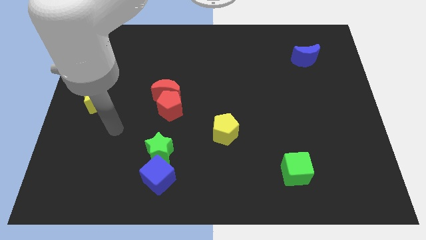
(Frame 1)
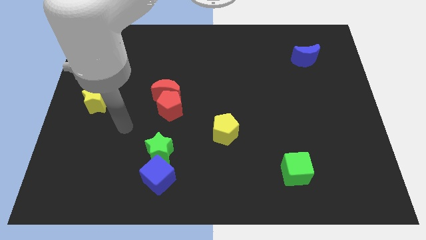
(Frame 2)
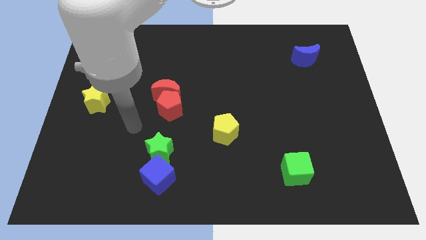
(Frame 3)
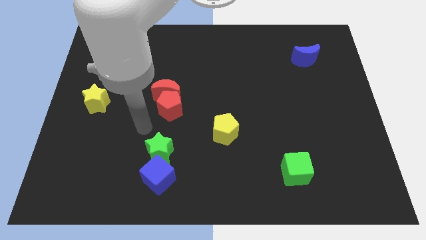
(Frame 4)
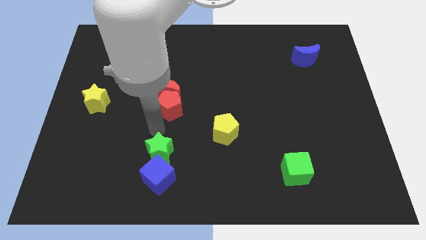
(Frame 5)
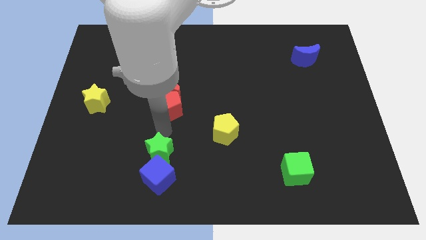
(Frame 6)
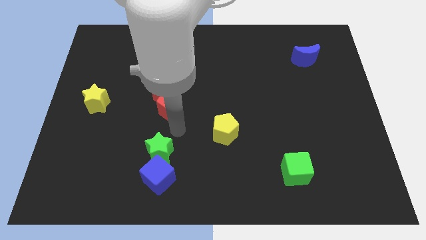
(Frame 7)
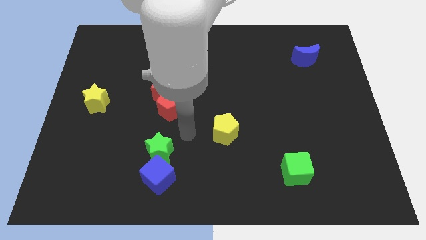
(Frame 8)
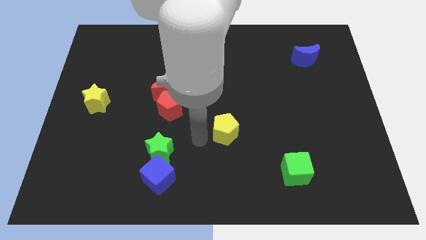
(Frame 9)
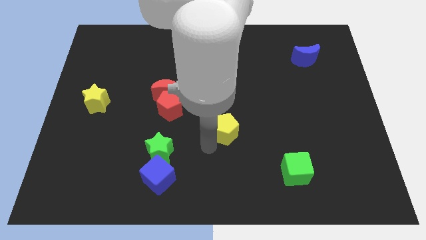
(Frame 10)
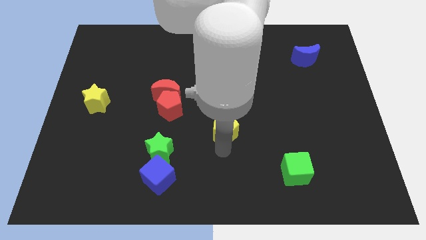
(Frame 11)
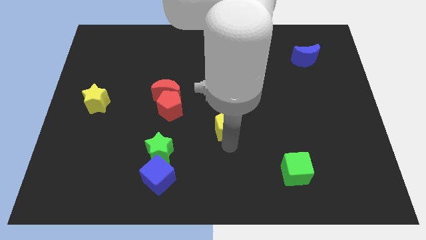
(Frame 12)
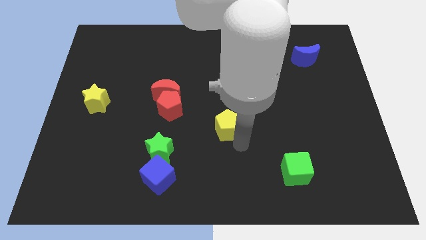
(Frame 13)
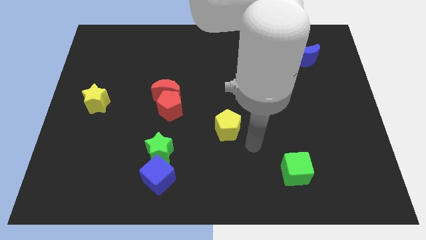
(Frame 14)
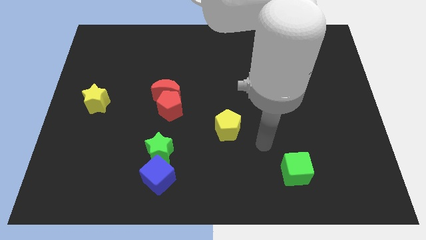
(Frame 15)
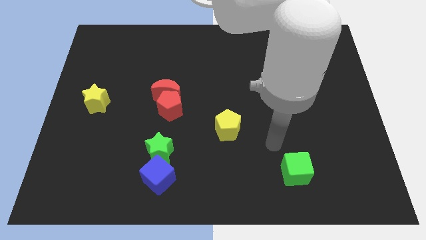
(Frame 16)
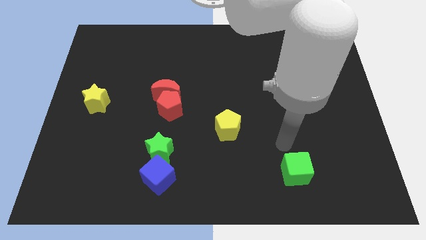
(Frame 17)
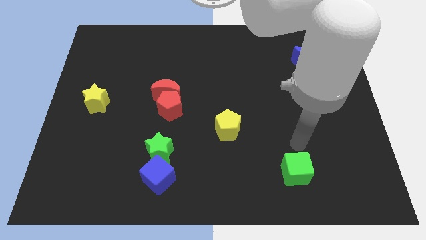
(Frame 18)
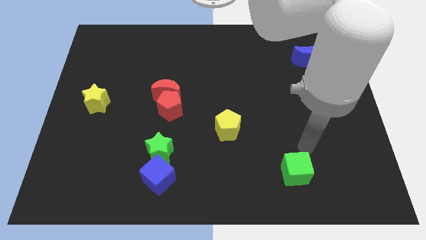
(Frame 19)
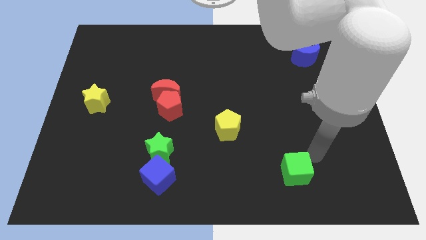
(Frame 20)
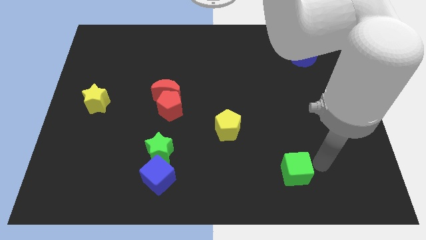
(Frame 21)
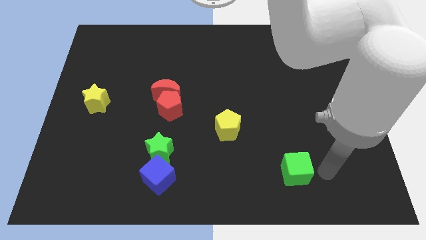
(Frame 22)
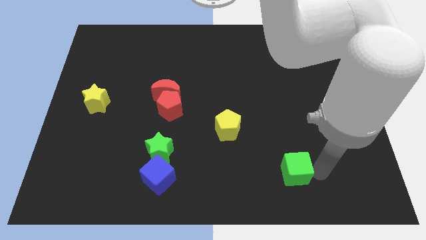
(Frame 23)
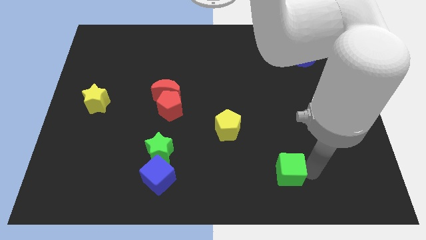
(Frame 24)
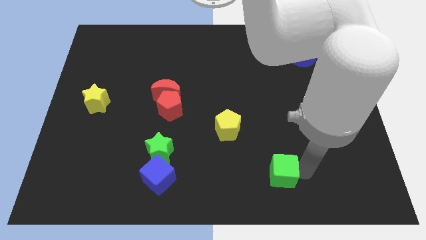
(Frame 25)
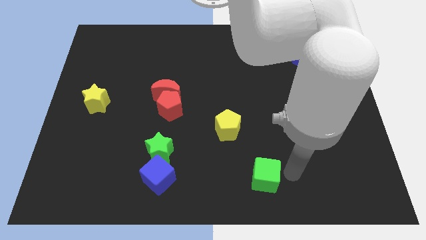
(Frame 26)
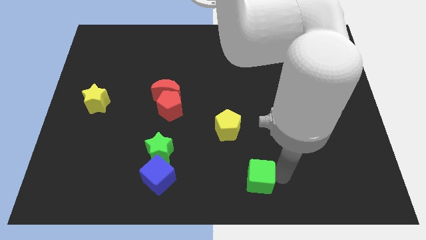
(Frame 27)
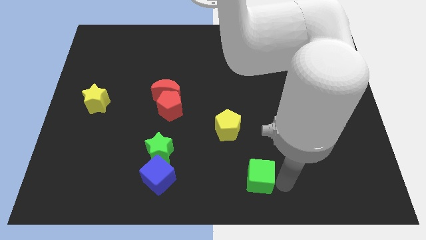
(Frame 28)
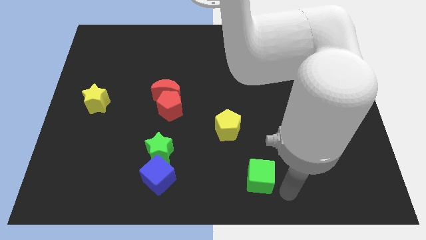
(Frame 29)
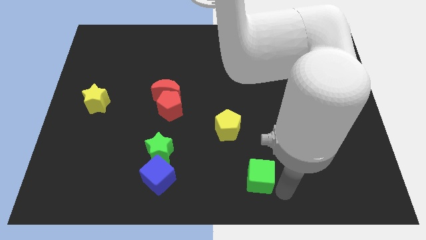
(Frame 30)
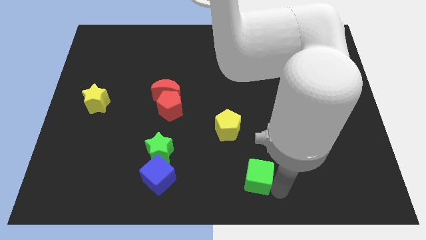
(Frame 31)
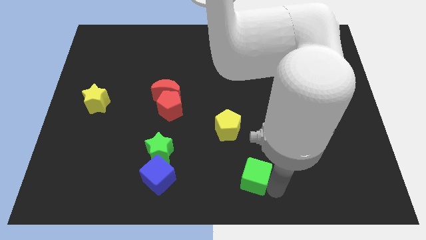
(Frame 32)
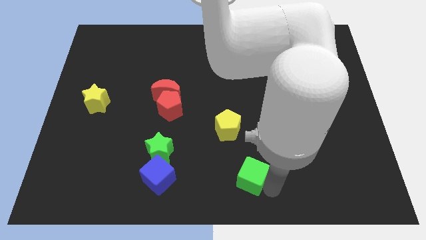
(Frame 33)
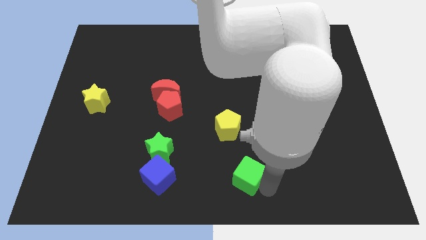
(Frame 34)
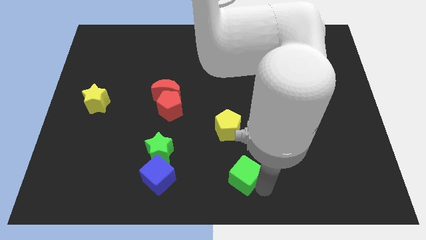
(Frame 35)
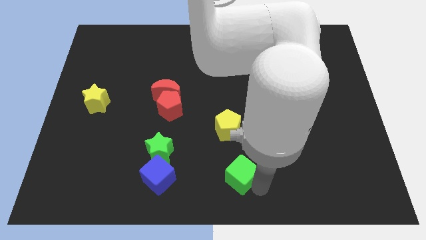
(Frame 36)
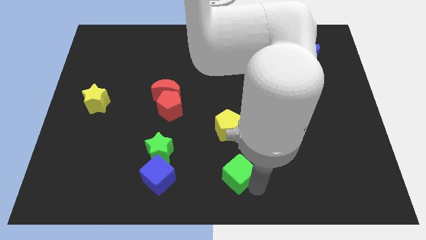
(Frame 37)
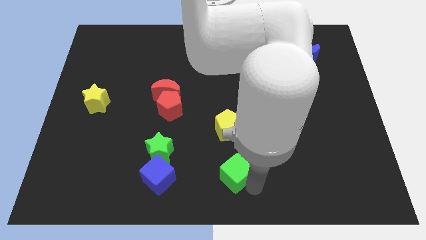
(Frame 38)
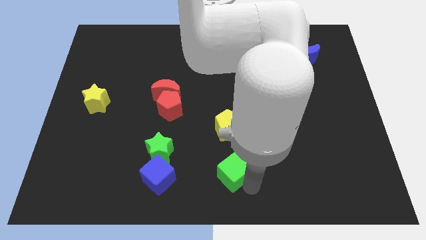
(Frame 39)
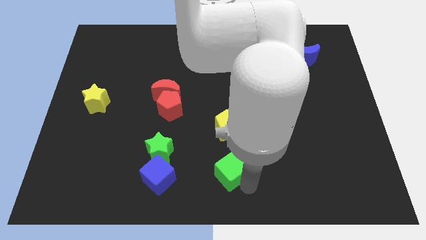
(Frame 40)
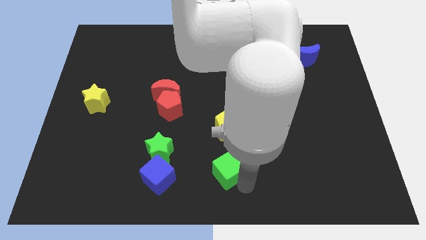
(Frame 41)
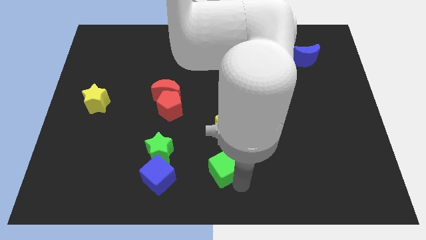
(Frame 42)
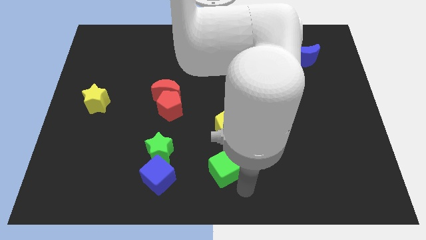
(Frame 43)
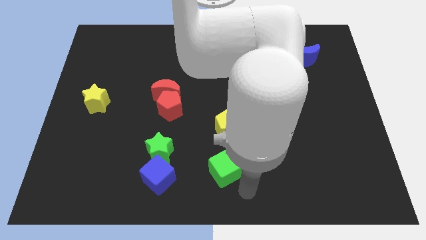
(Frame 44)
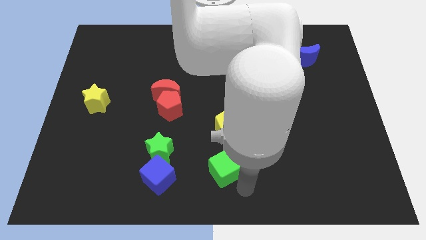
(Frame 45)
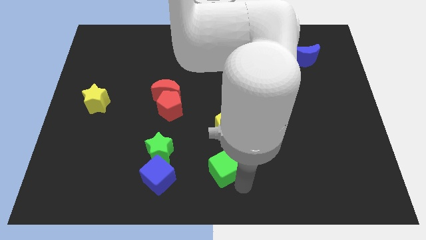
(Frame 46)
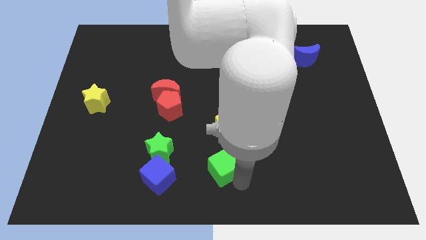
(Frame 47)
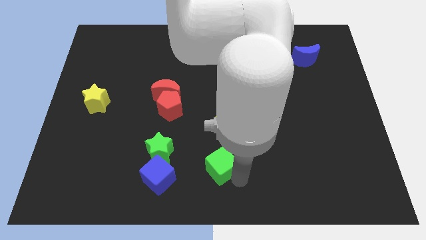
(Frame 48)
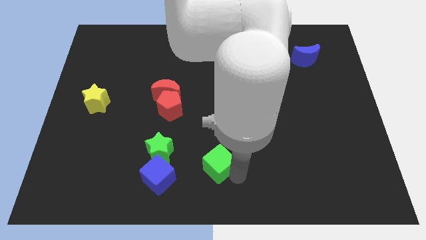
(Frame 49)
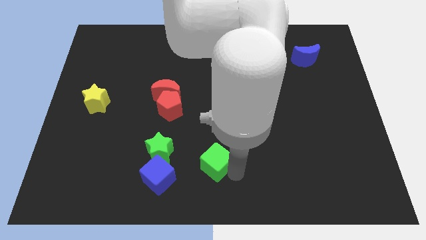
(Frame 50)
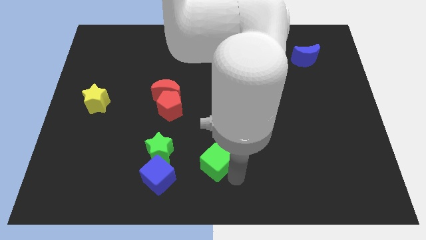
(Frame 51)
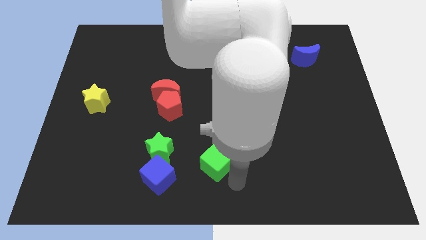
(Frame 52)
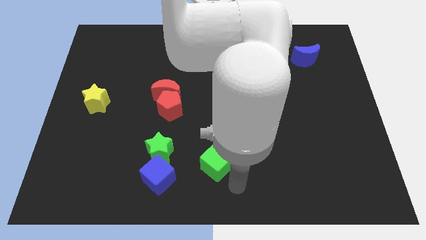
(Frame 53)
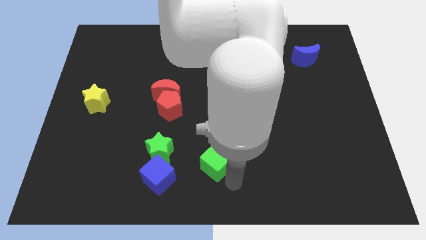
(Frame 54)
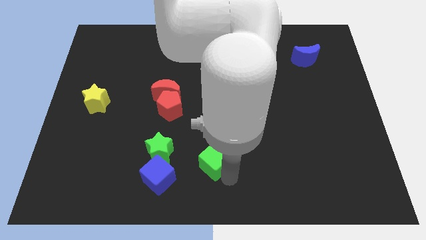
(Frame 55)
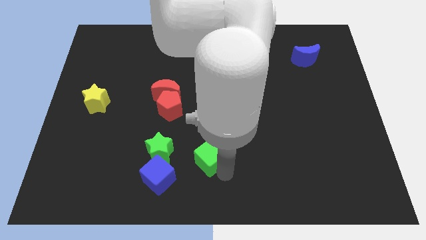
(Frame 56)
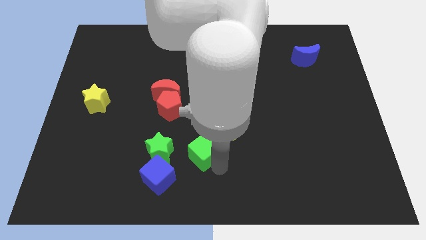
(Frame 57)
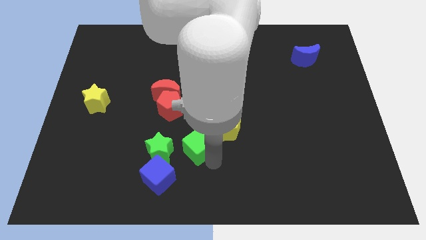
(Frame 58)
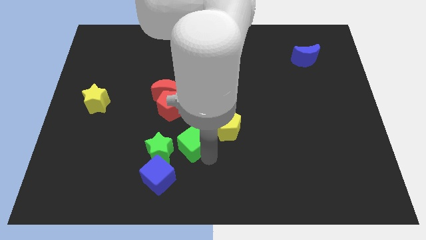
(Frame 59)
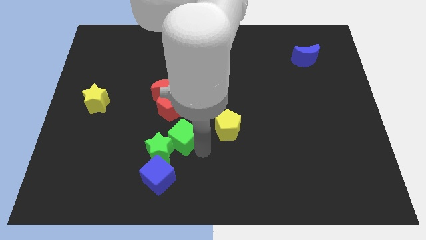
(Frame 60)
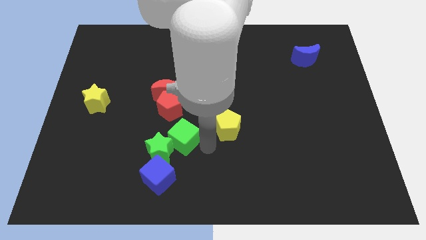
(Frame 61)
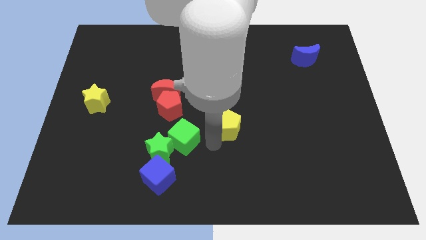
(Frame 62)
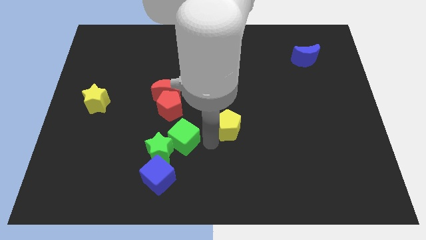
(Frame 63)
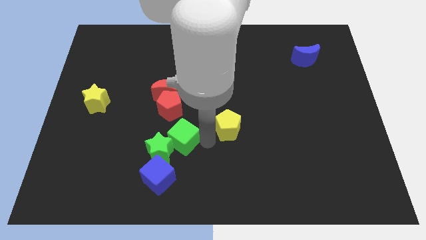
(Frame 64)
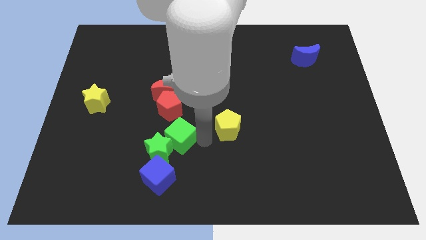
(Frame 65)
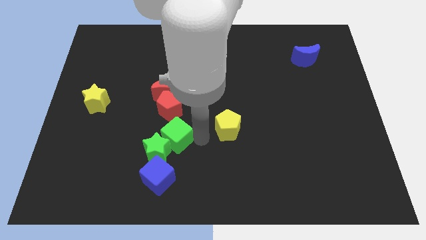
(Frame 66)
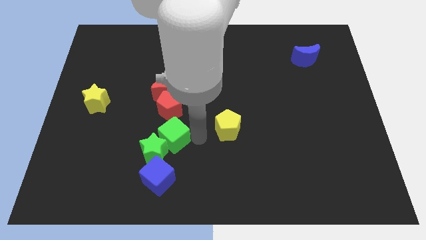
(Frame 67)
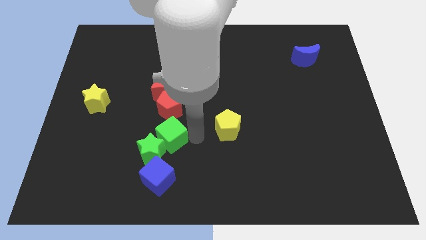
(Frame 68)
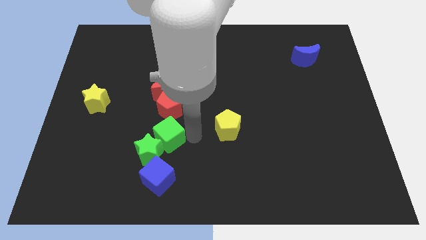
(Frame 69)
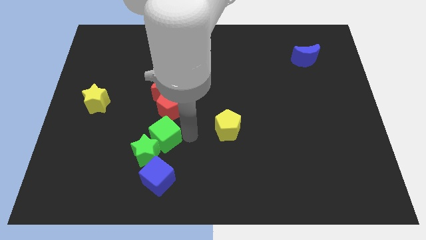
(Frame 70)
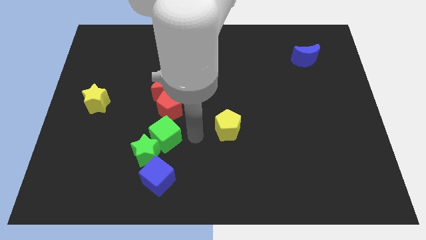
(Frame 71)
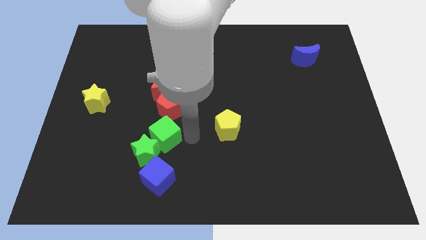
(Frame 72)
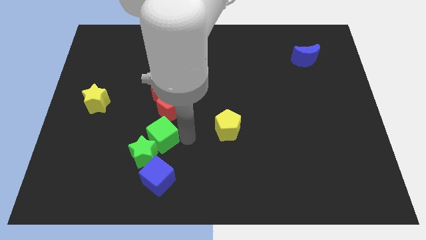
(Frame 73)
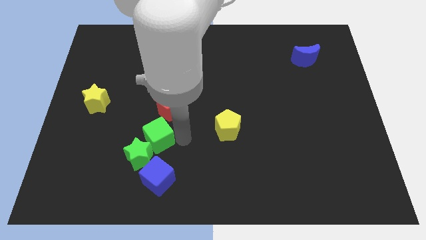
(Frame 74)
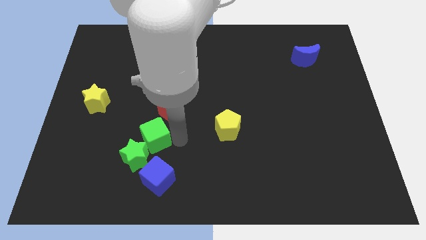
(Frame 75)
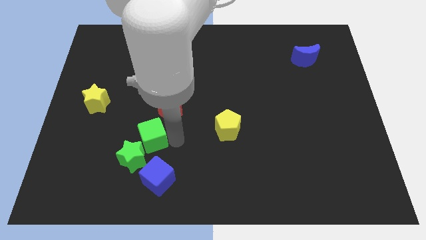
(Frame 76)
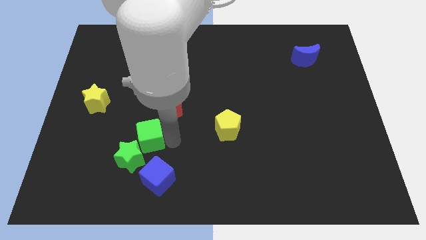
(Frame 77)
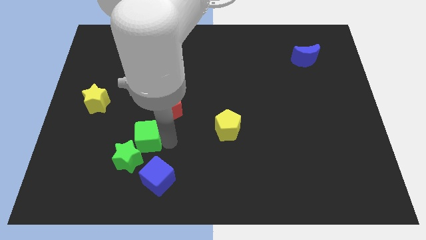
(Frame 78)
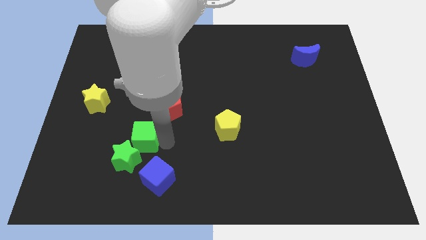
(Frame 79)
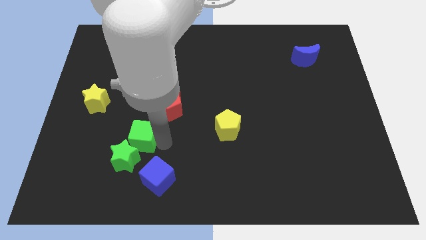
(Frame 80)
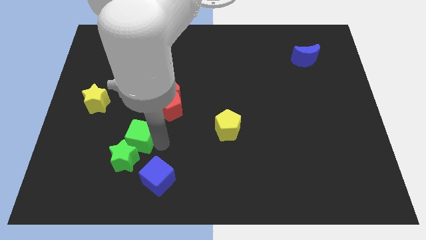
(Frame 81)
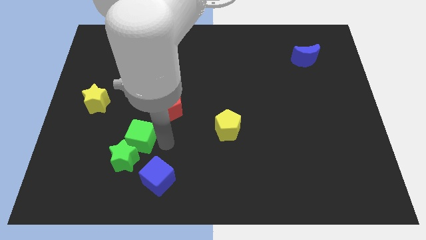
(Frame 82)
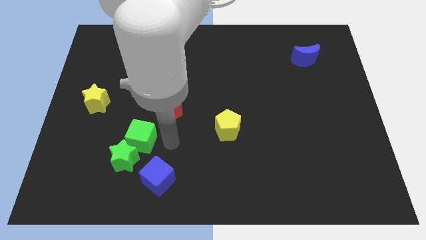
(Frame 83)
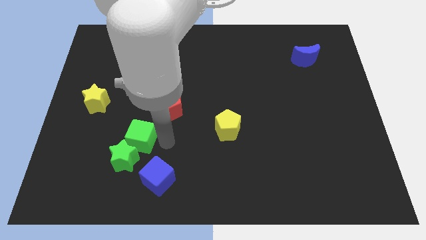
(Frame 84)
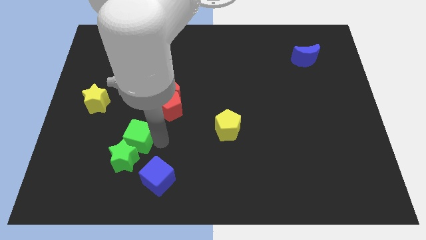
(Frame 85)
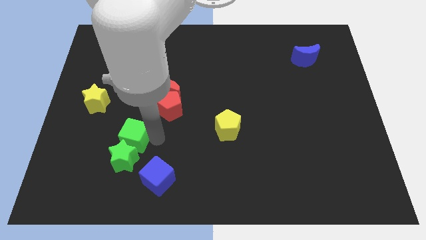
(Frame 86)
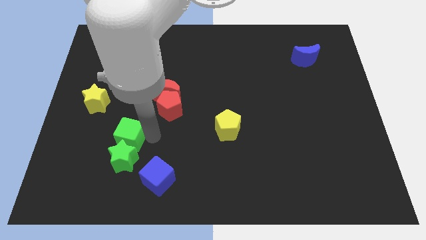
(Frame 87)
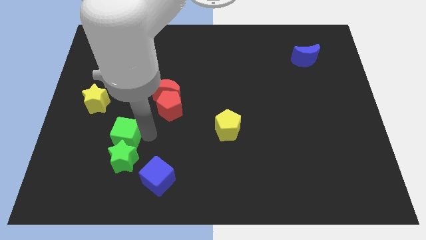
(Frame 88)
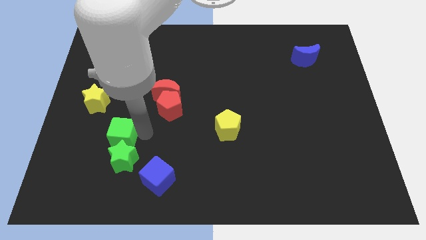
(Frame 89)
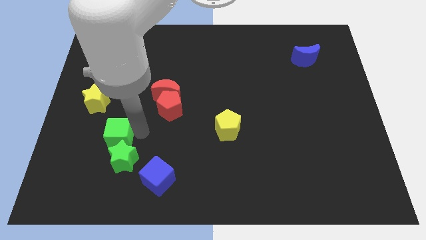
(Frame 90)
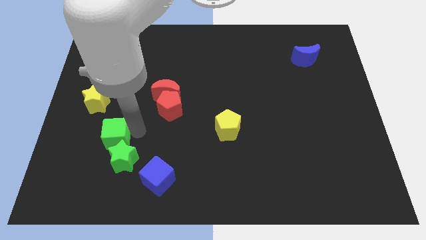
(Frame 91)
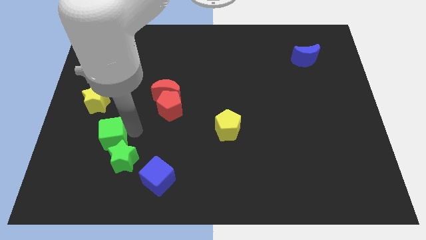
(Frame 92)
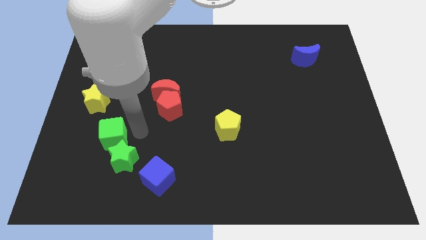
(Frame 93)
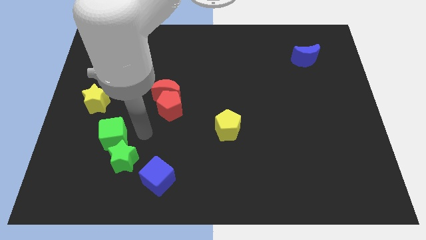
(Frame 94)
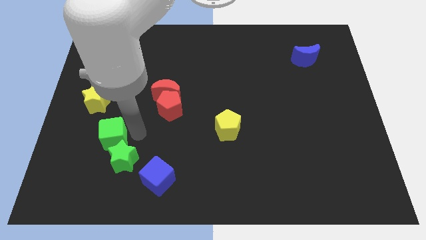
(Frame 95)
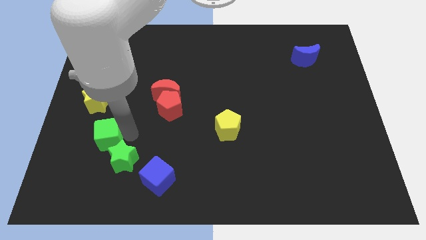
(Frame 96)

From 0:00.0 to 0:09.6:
slide the green cube to the bottom side of the yellow star
